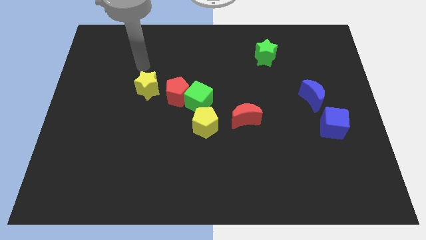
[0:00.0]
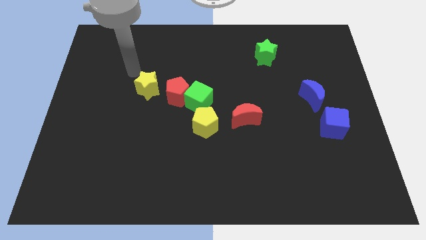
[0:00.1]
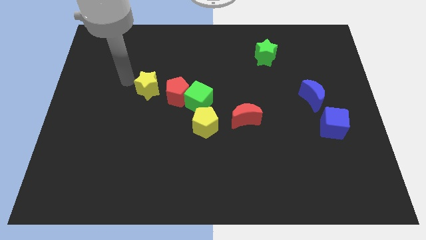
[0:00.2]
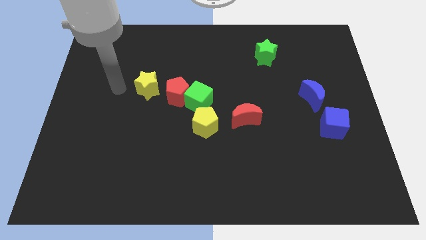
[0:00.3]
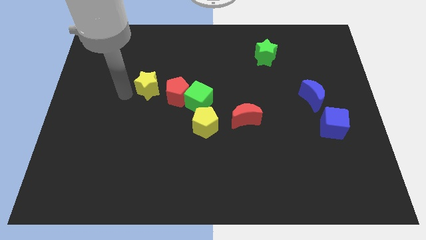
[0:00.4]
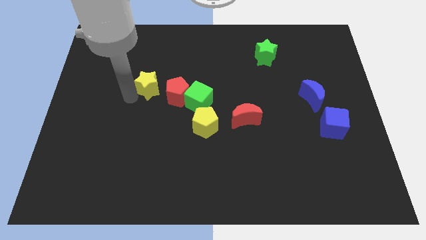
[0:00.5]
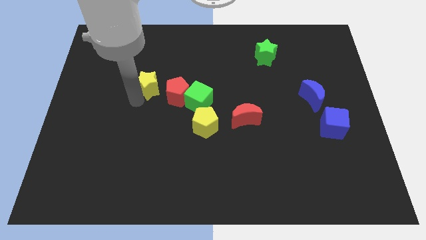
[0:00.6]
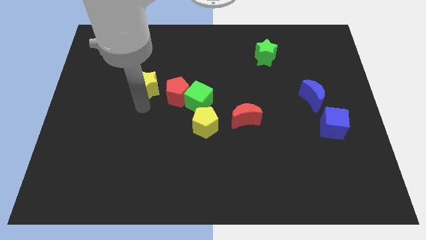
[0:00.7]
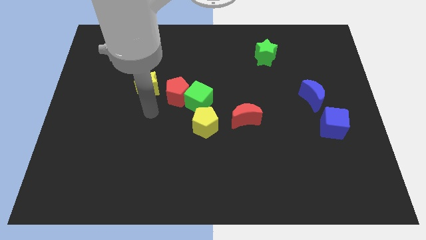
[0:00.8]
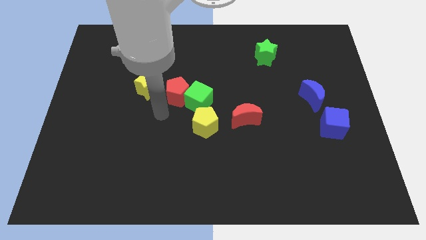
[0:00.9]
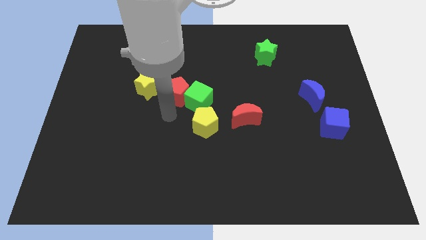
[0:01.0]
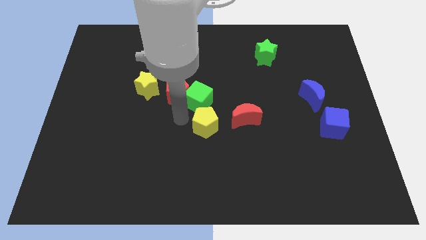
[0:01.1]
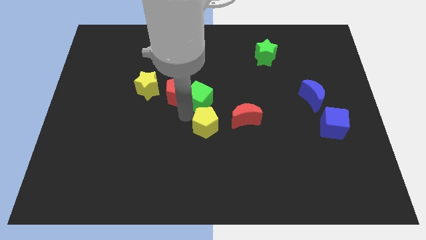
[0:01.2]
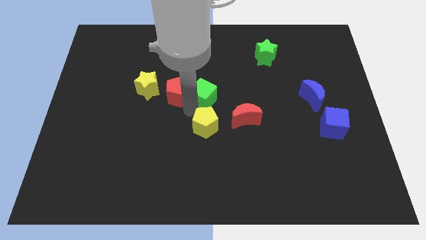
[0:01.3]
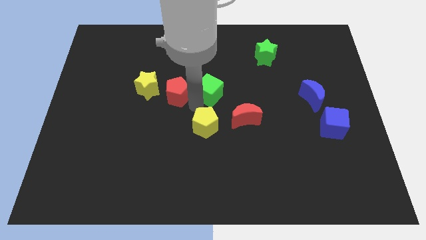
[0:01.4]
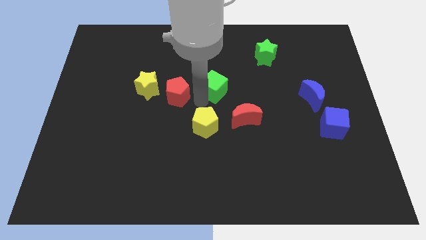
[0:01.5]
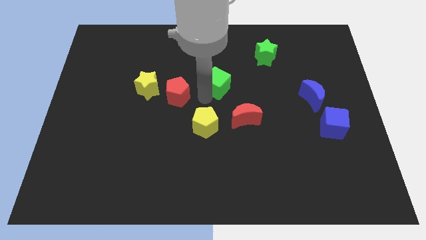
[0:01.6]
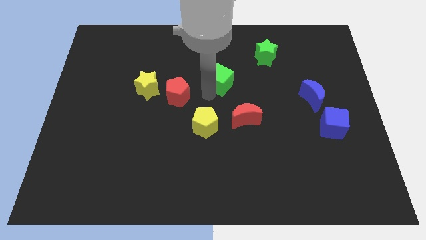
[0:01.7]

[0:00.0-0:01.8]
separate the green cube from the red pentagon and yellow pentagon

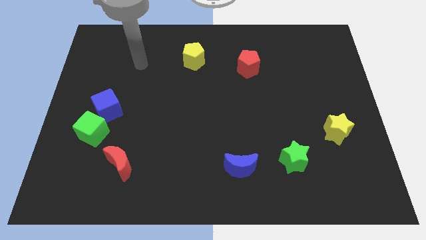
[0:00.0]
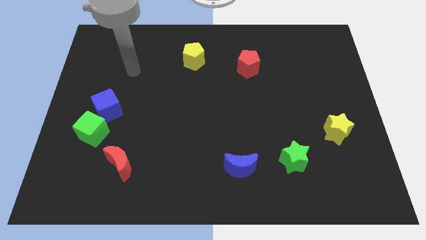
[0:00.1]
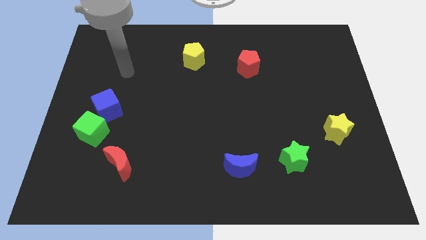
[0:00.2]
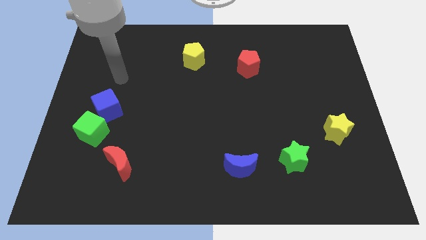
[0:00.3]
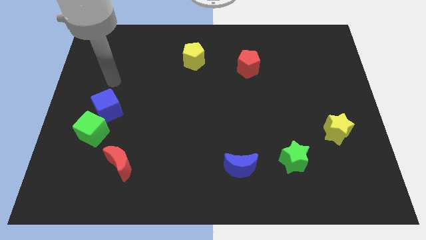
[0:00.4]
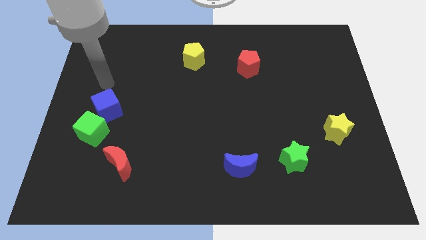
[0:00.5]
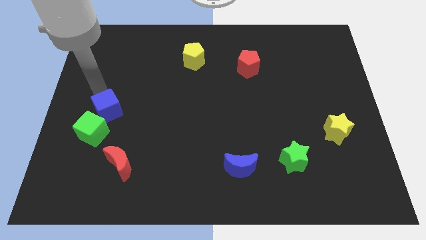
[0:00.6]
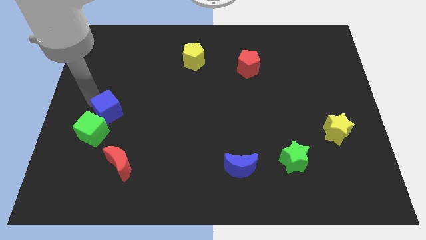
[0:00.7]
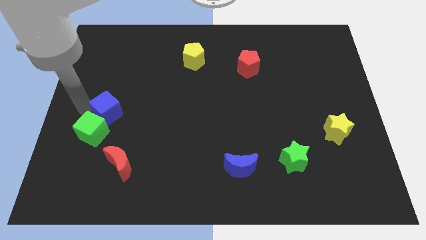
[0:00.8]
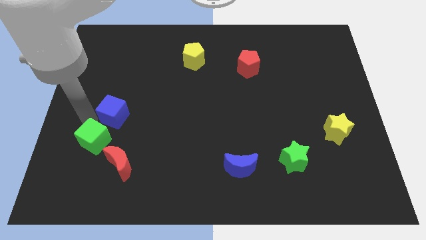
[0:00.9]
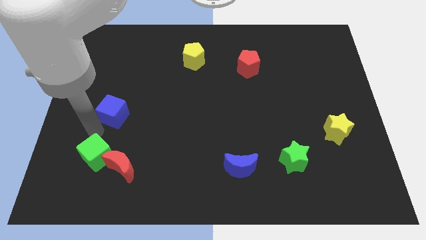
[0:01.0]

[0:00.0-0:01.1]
pull the blue cube apart from the green cube

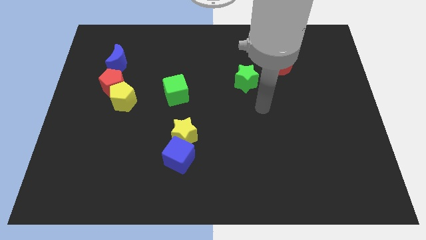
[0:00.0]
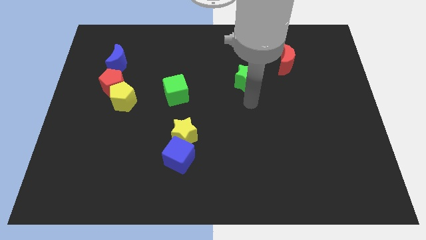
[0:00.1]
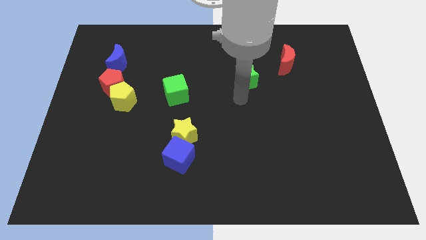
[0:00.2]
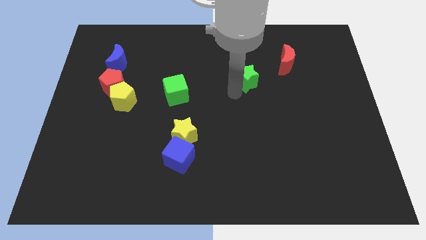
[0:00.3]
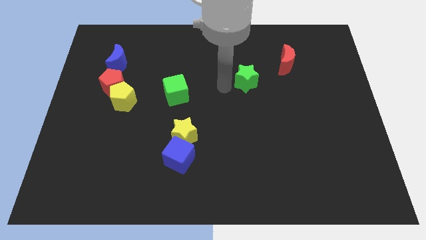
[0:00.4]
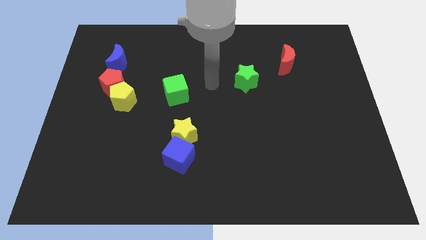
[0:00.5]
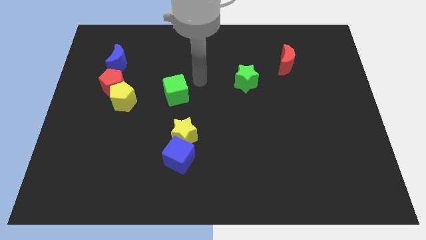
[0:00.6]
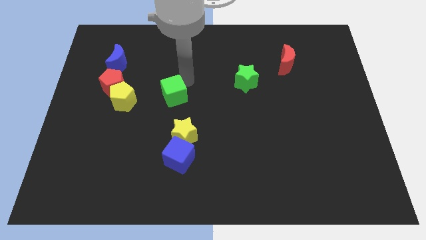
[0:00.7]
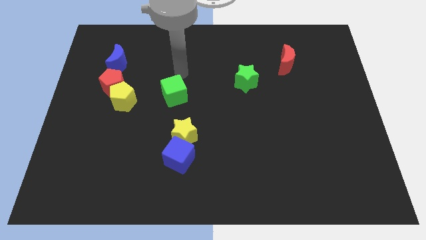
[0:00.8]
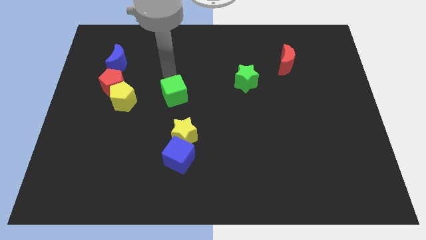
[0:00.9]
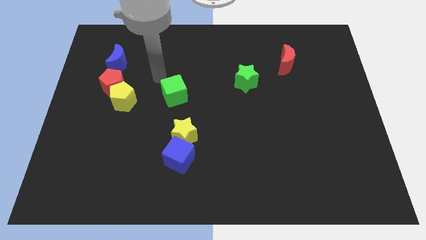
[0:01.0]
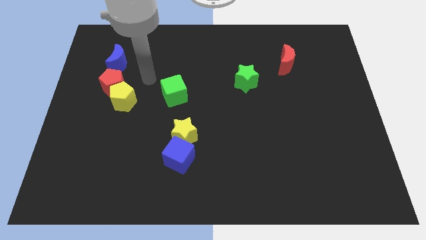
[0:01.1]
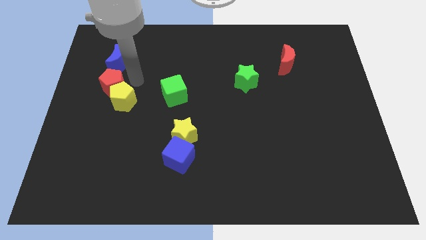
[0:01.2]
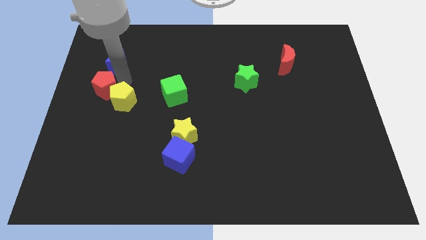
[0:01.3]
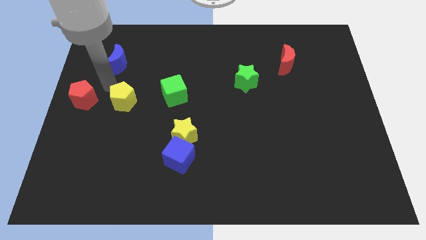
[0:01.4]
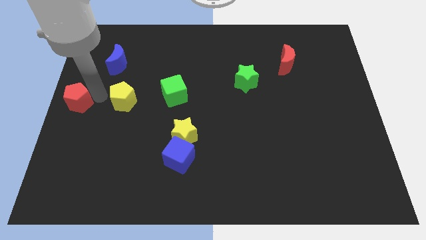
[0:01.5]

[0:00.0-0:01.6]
pull the yellow pentagon apart from the red pentagon

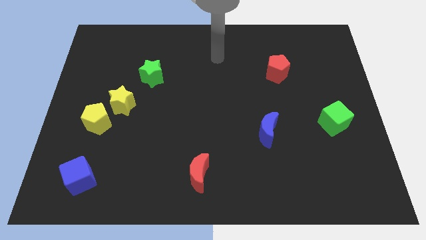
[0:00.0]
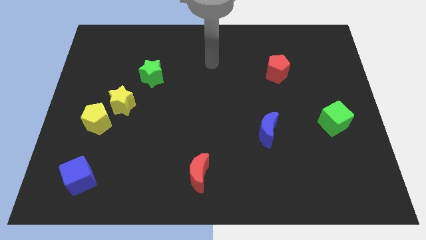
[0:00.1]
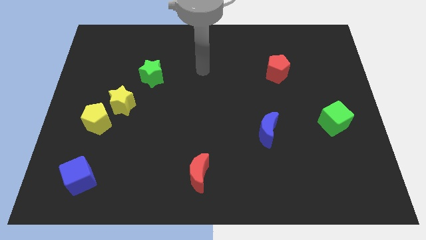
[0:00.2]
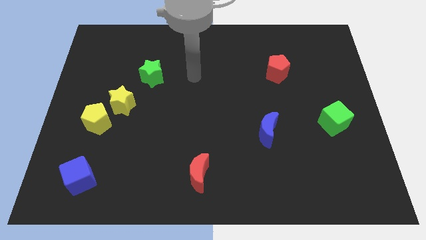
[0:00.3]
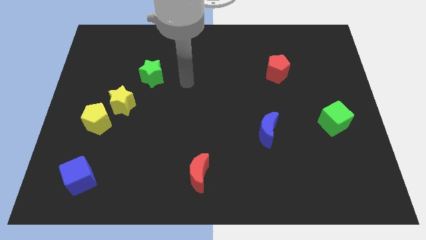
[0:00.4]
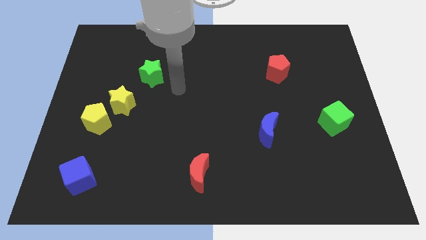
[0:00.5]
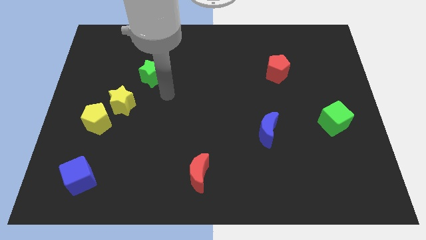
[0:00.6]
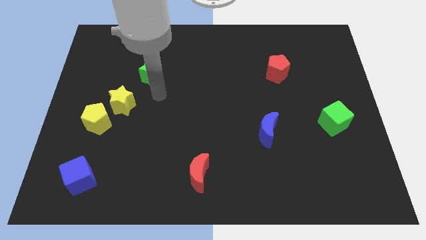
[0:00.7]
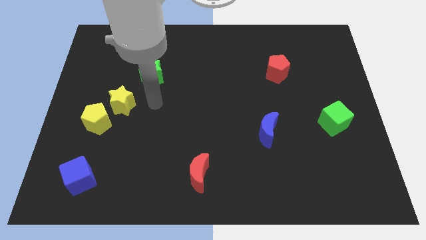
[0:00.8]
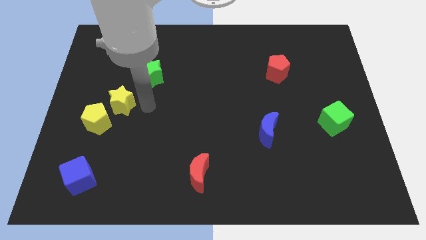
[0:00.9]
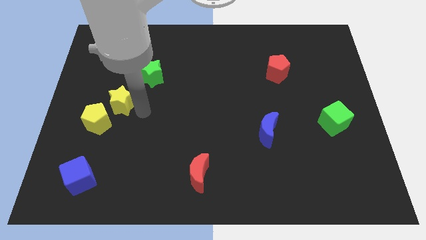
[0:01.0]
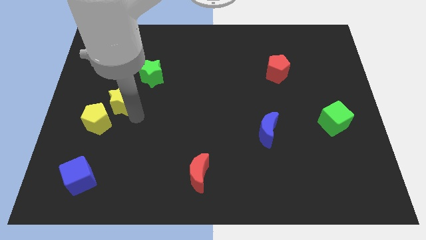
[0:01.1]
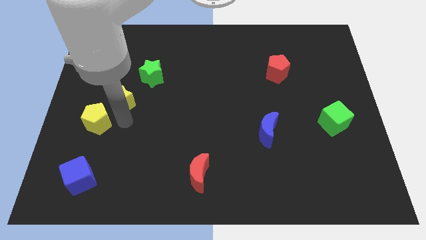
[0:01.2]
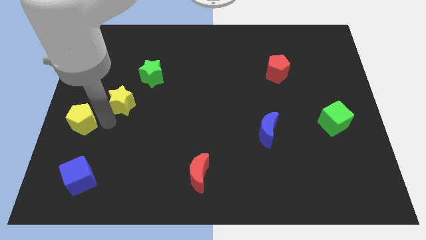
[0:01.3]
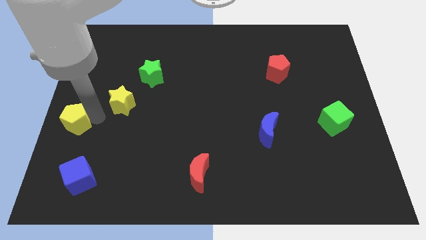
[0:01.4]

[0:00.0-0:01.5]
move the yellow star away from the yellow pentagon

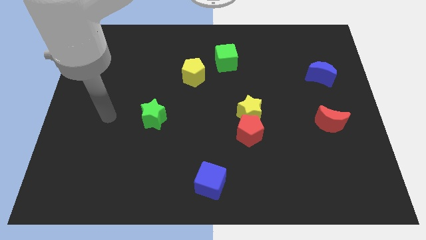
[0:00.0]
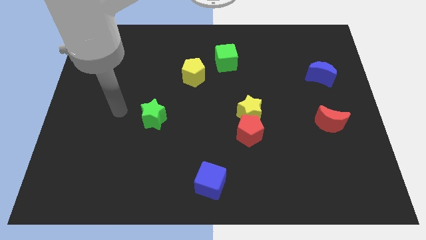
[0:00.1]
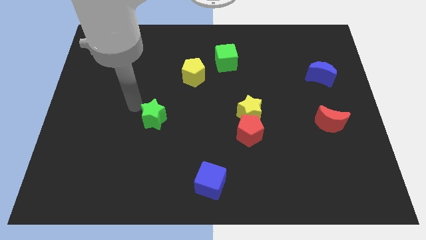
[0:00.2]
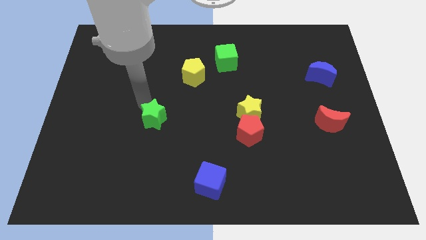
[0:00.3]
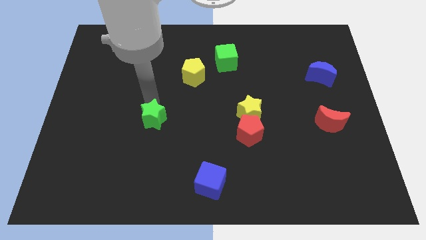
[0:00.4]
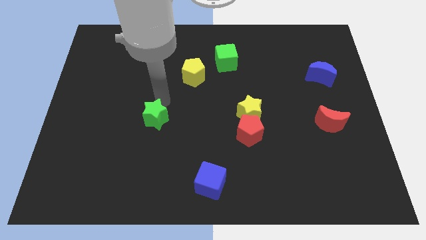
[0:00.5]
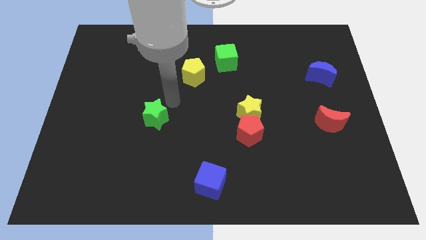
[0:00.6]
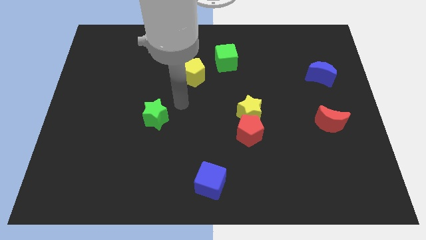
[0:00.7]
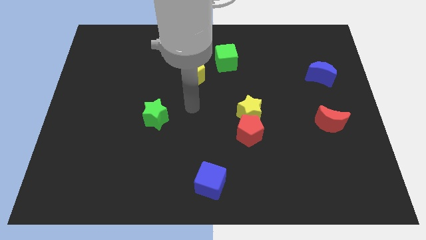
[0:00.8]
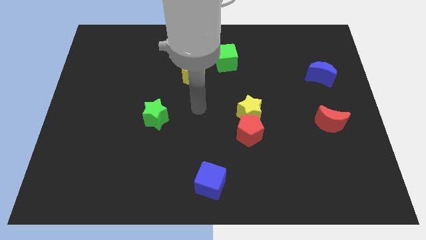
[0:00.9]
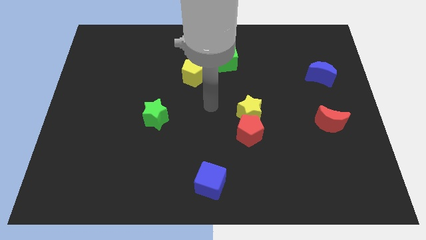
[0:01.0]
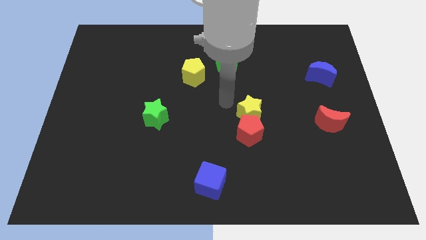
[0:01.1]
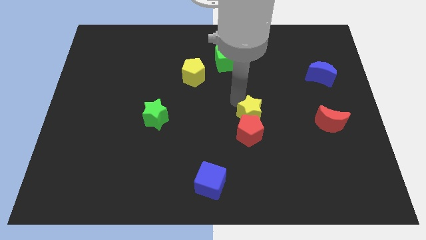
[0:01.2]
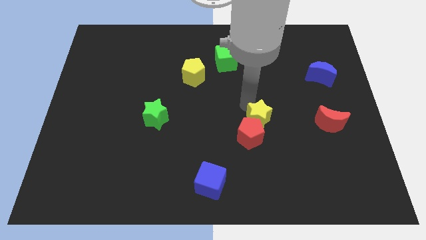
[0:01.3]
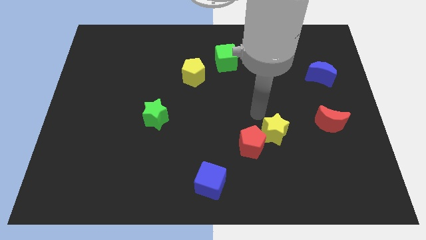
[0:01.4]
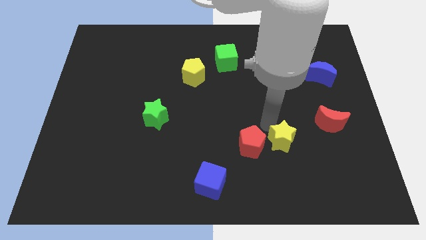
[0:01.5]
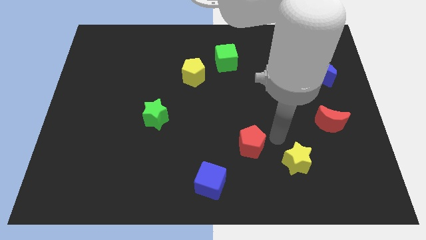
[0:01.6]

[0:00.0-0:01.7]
pull the red pentagon apart from the yellow star

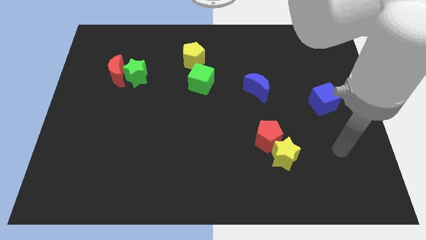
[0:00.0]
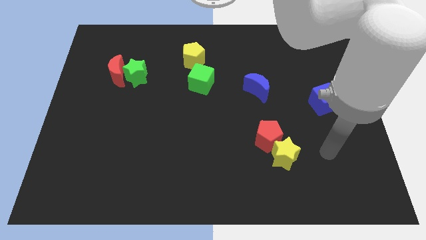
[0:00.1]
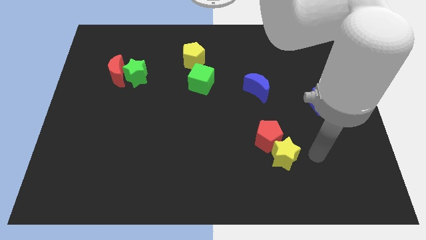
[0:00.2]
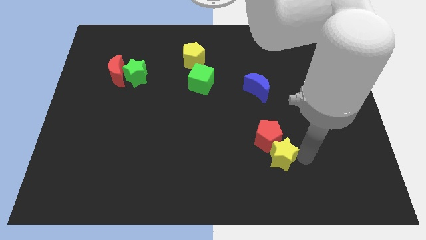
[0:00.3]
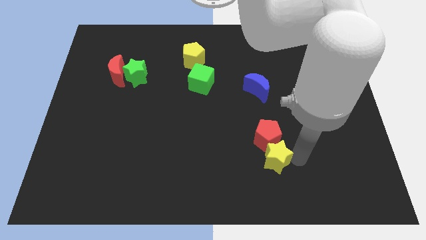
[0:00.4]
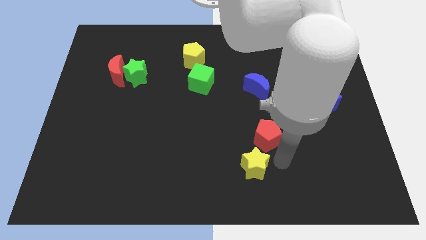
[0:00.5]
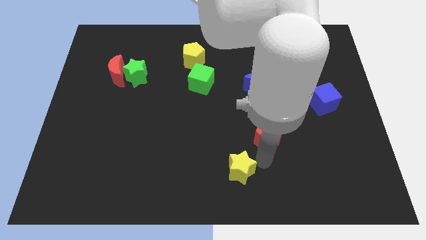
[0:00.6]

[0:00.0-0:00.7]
move the red pentagon away from the yellow star

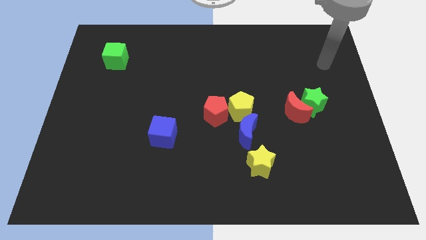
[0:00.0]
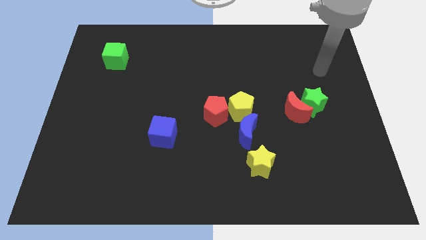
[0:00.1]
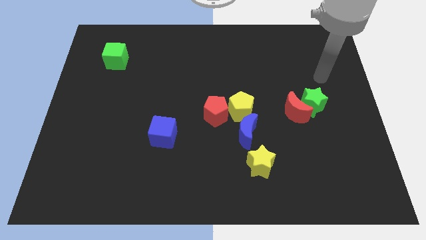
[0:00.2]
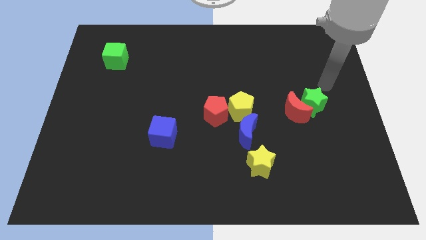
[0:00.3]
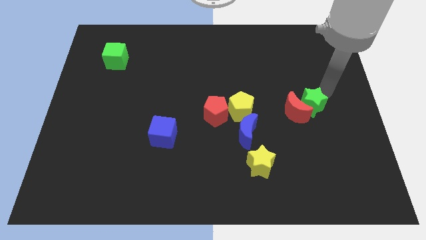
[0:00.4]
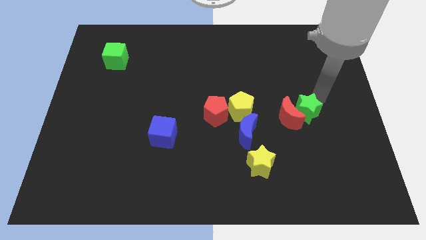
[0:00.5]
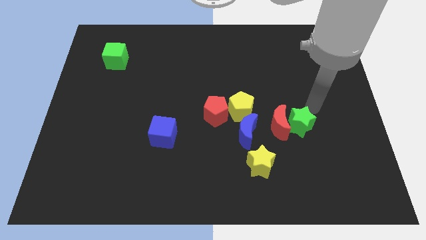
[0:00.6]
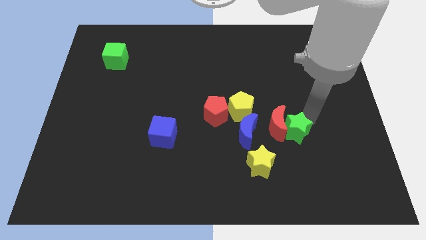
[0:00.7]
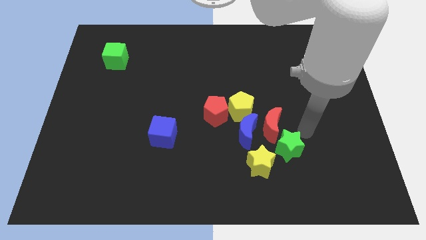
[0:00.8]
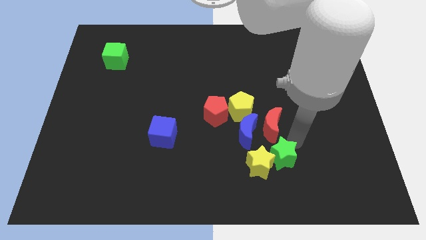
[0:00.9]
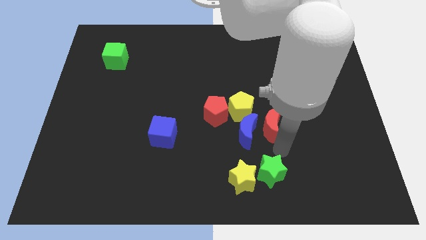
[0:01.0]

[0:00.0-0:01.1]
move the red moon away from the green star

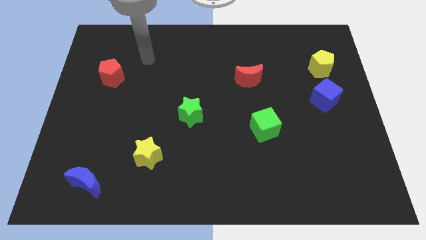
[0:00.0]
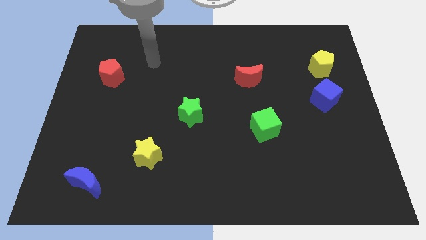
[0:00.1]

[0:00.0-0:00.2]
pull the blue cube apart from the yellow pentagon
